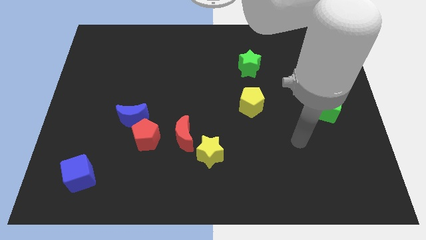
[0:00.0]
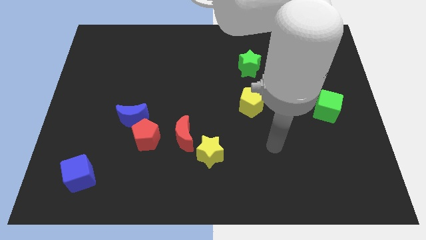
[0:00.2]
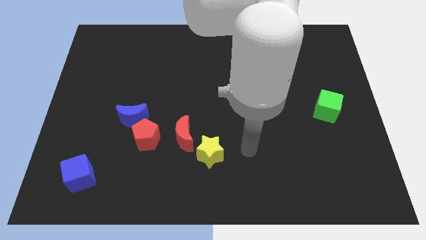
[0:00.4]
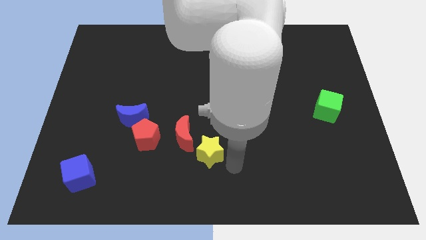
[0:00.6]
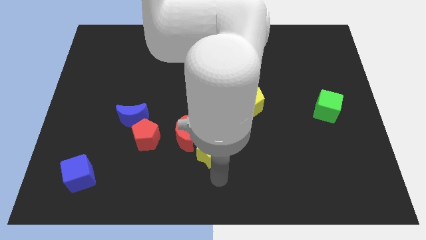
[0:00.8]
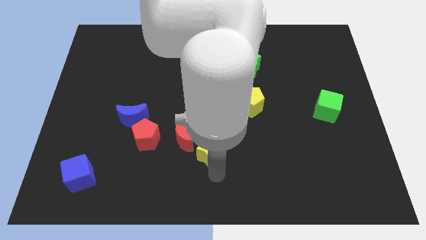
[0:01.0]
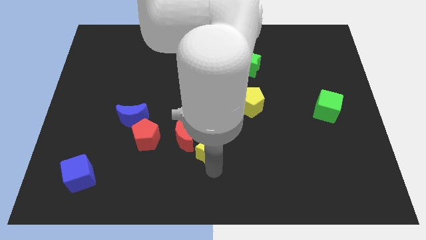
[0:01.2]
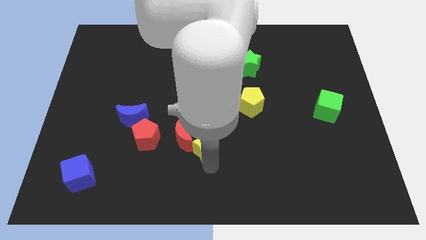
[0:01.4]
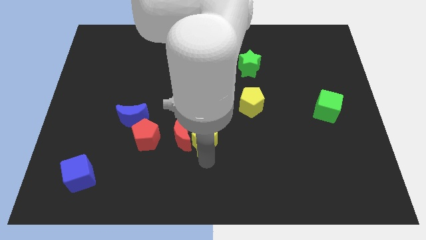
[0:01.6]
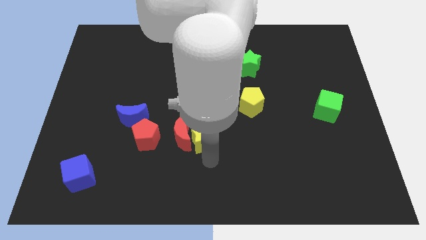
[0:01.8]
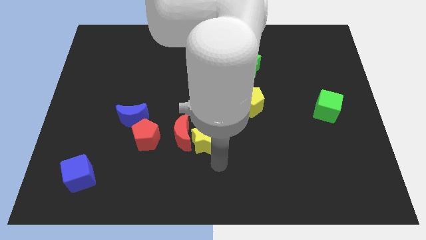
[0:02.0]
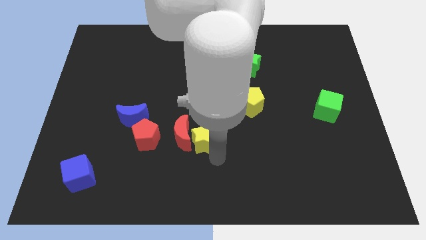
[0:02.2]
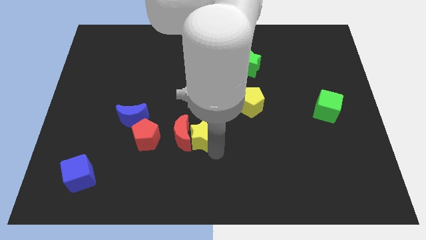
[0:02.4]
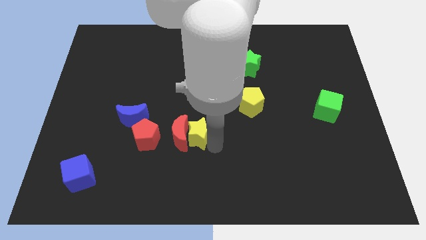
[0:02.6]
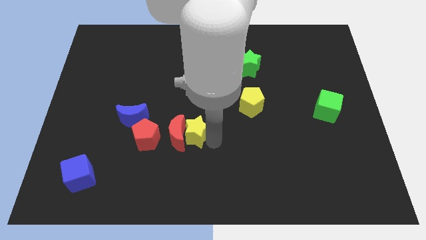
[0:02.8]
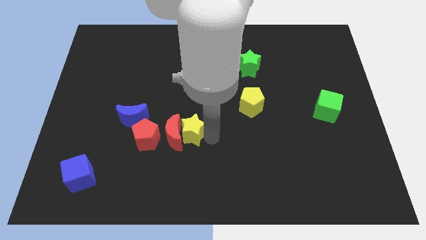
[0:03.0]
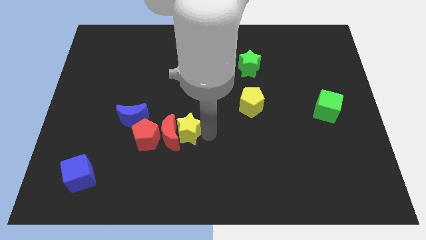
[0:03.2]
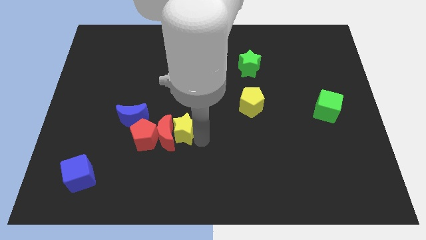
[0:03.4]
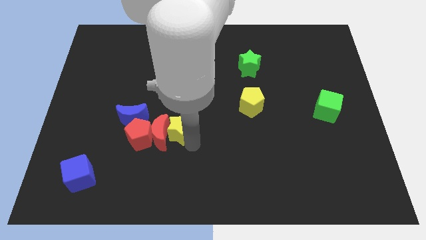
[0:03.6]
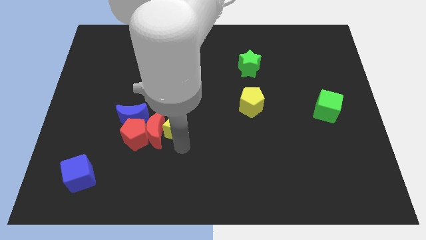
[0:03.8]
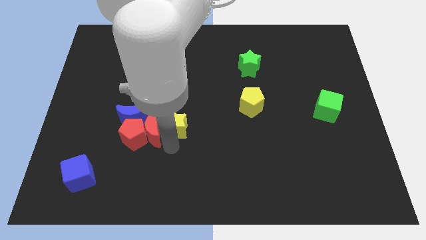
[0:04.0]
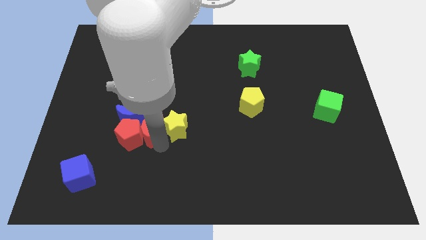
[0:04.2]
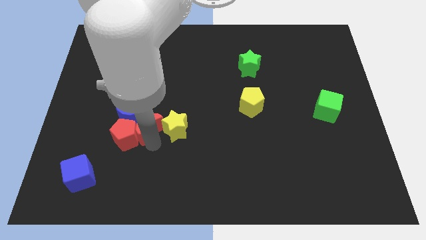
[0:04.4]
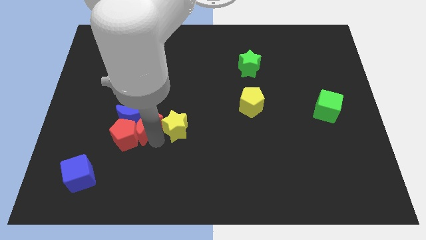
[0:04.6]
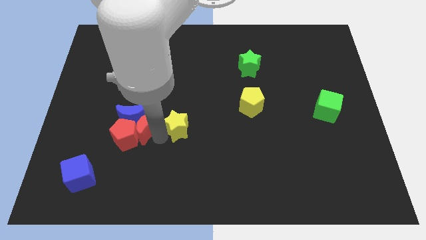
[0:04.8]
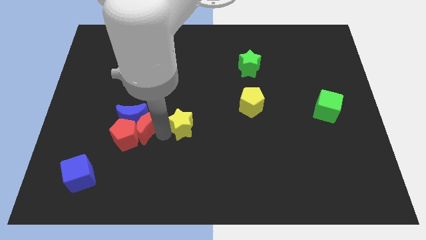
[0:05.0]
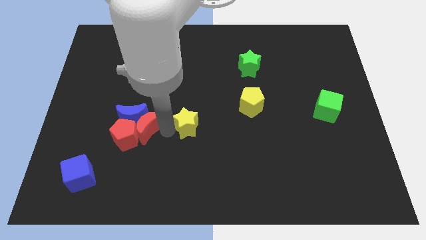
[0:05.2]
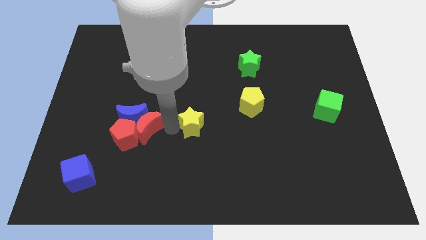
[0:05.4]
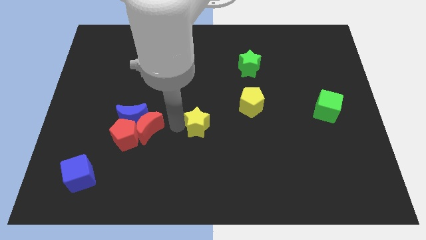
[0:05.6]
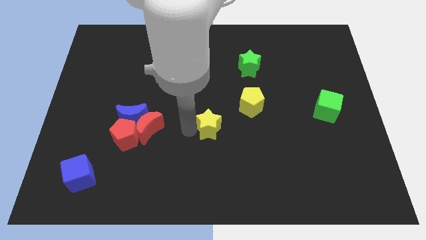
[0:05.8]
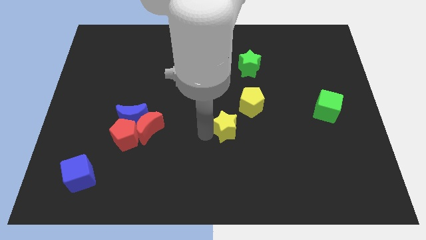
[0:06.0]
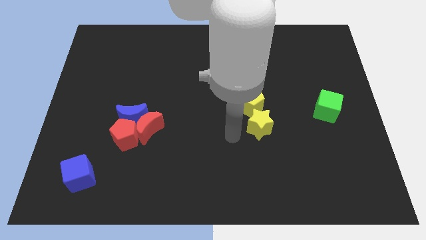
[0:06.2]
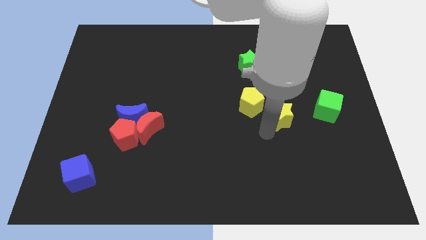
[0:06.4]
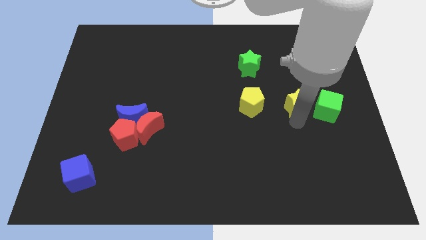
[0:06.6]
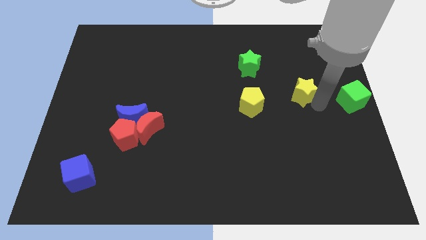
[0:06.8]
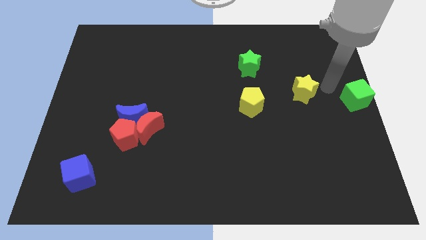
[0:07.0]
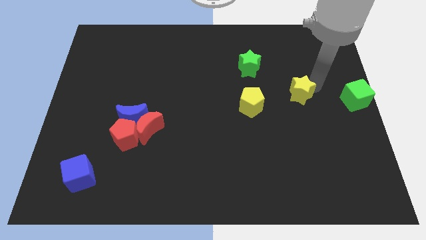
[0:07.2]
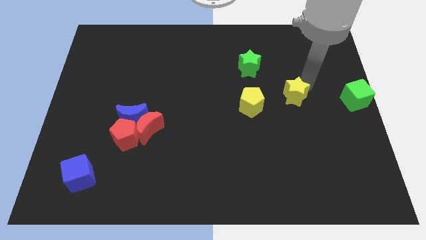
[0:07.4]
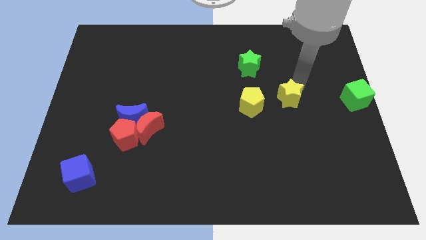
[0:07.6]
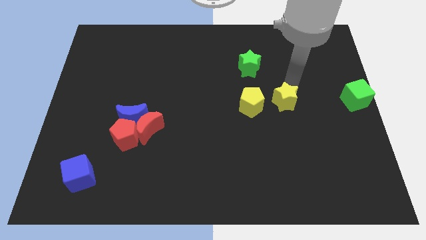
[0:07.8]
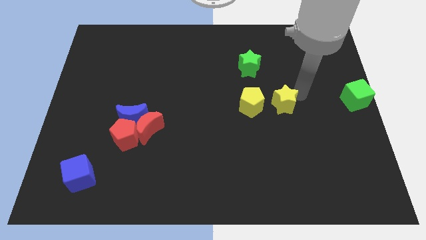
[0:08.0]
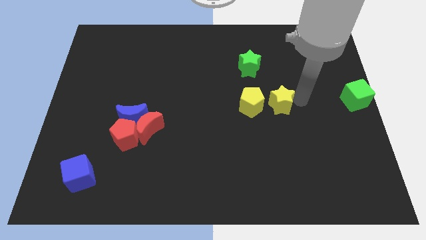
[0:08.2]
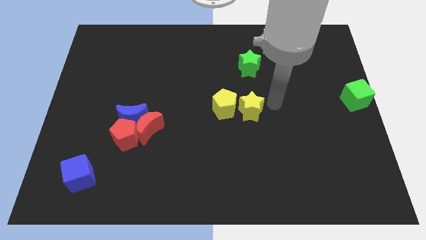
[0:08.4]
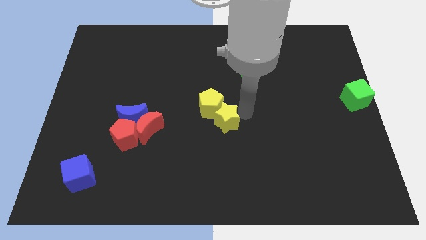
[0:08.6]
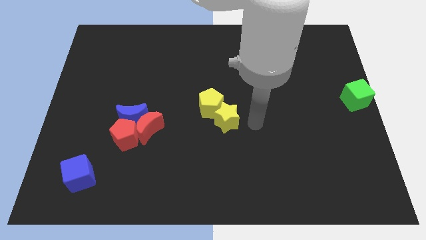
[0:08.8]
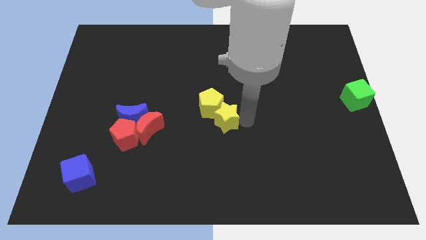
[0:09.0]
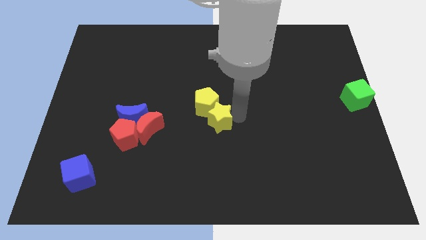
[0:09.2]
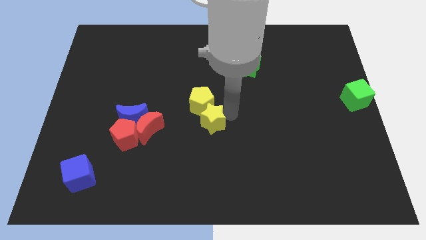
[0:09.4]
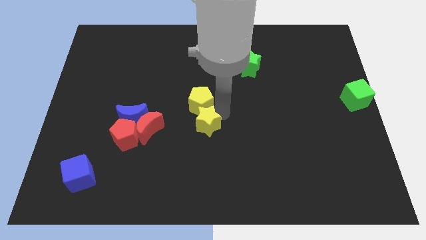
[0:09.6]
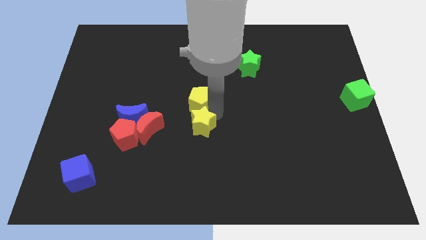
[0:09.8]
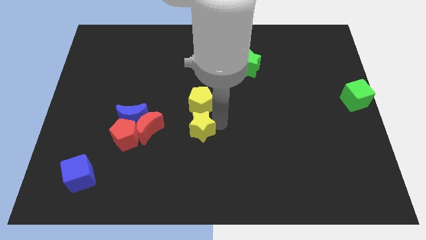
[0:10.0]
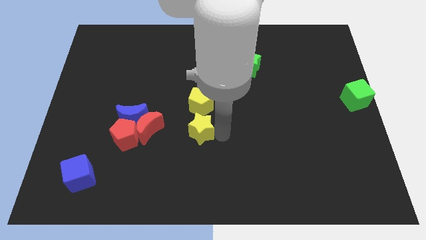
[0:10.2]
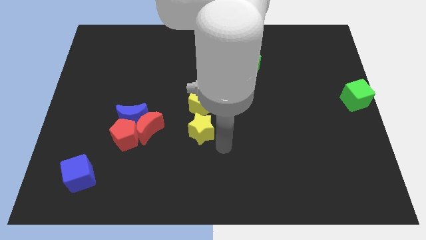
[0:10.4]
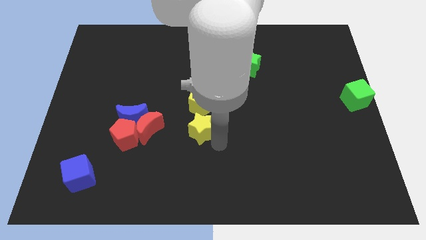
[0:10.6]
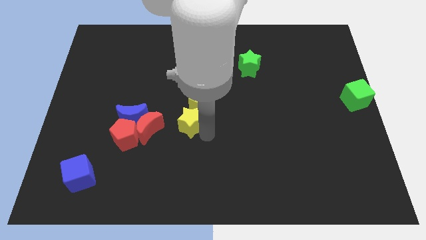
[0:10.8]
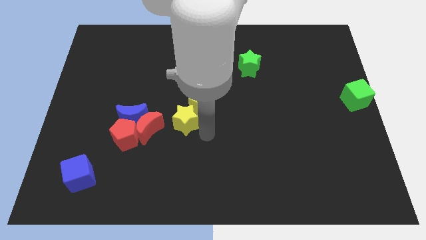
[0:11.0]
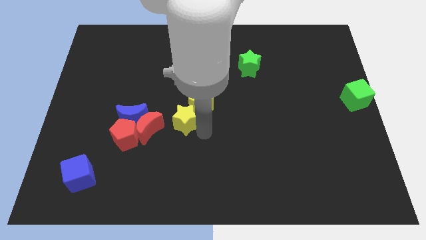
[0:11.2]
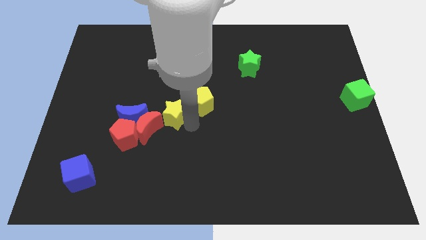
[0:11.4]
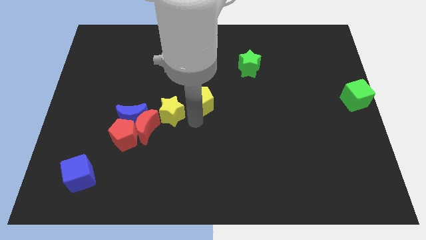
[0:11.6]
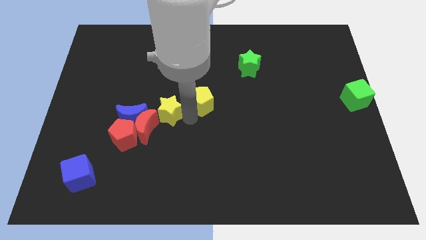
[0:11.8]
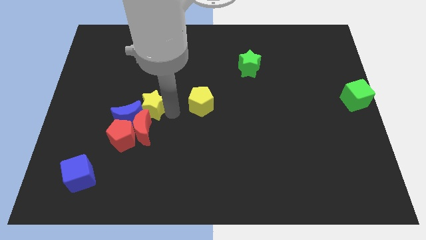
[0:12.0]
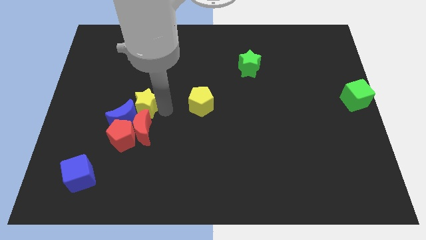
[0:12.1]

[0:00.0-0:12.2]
move the yellow star to the top of the red pentagon
